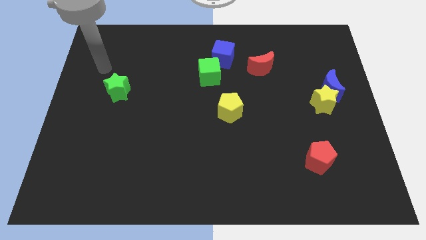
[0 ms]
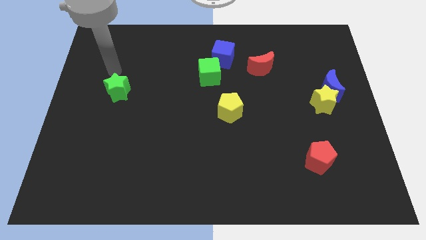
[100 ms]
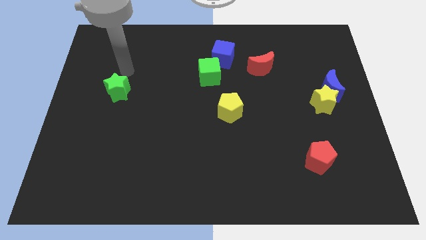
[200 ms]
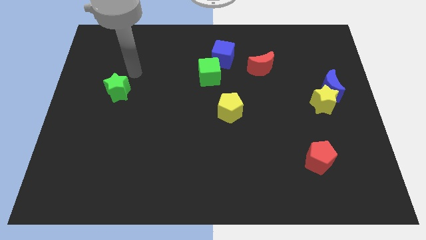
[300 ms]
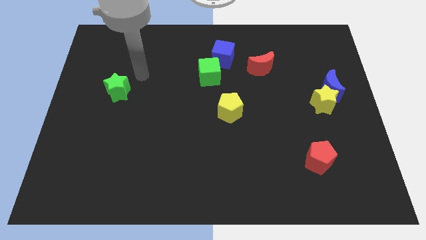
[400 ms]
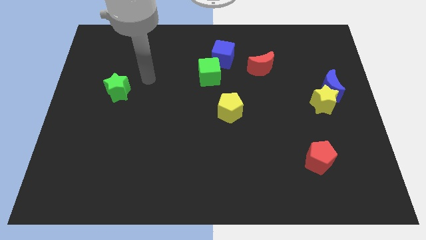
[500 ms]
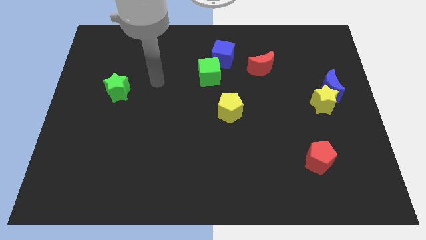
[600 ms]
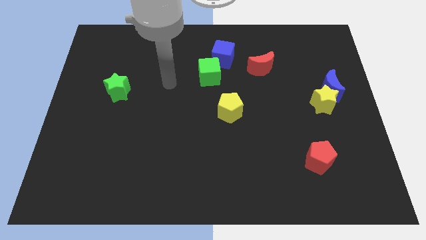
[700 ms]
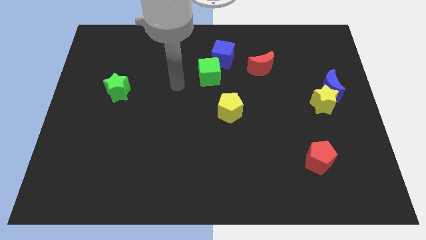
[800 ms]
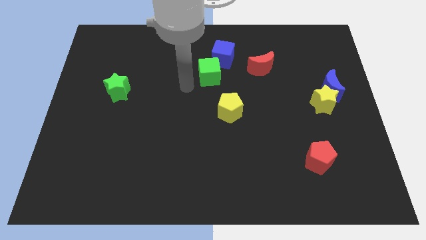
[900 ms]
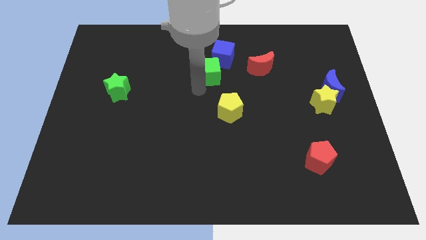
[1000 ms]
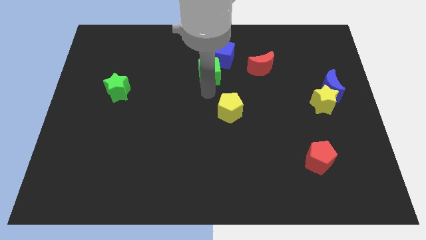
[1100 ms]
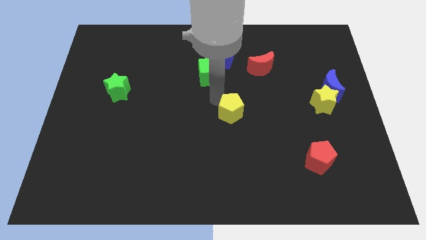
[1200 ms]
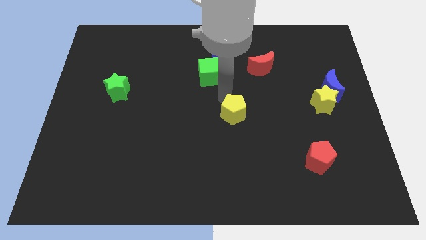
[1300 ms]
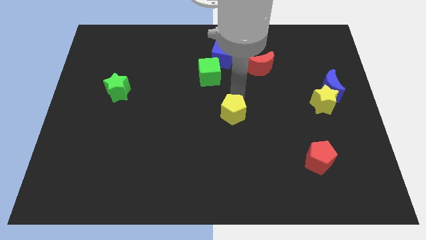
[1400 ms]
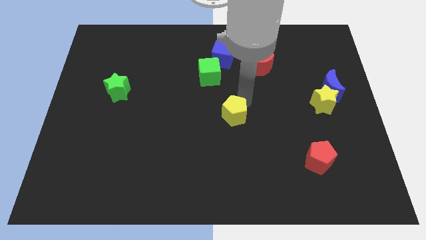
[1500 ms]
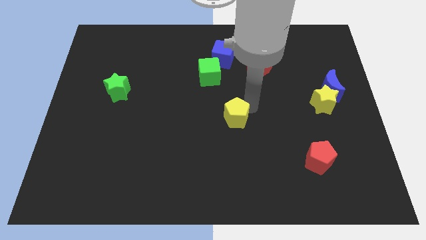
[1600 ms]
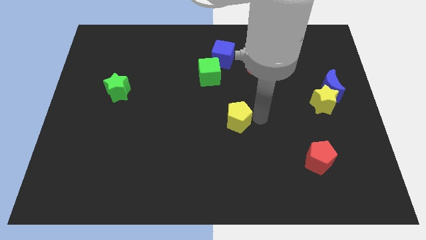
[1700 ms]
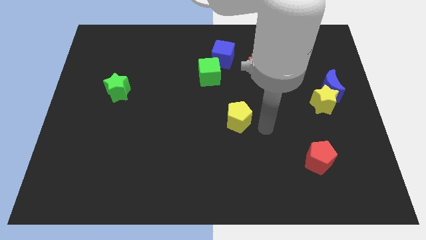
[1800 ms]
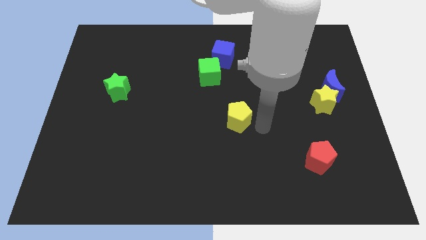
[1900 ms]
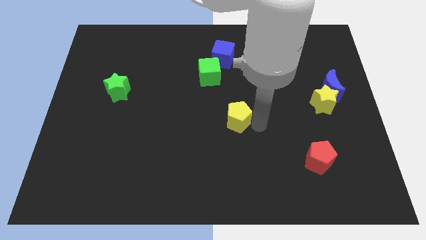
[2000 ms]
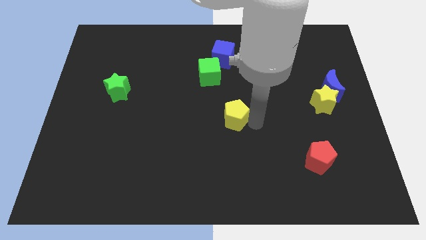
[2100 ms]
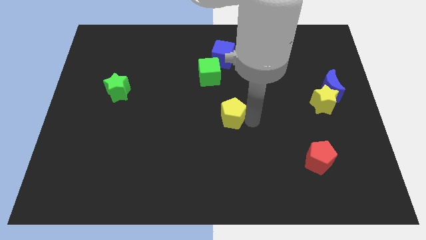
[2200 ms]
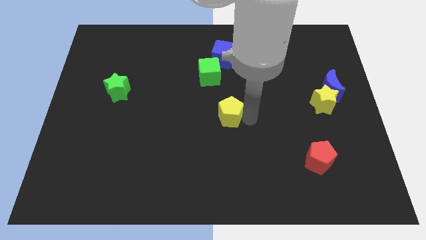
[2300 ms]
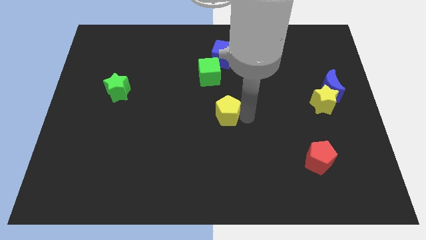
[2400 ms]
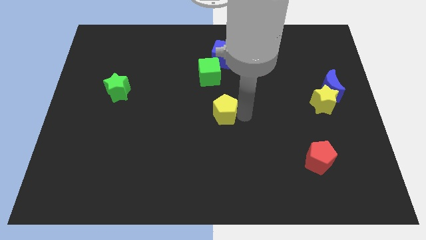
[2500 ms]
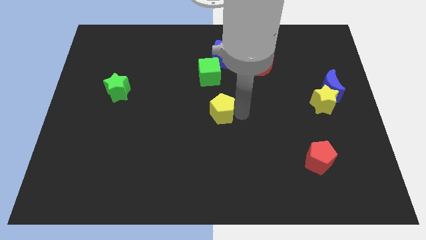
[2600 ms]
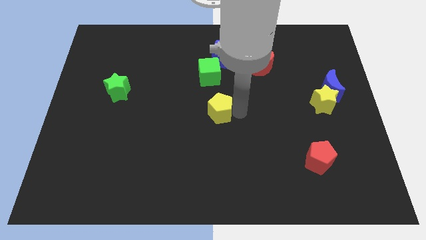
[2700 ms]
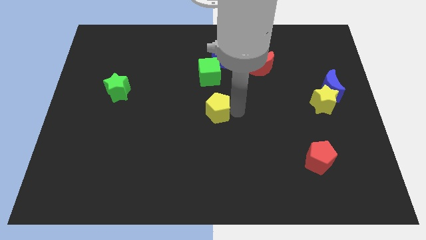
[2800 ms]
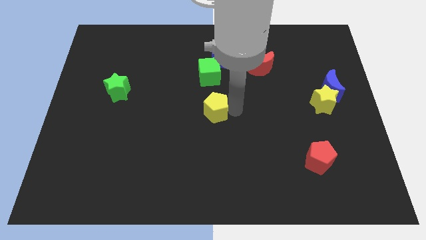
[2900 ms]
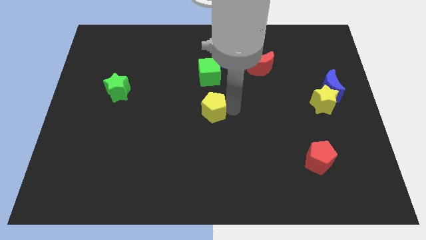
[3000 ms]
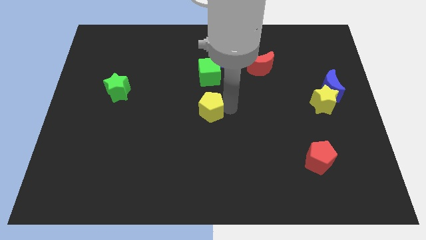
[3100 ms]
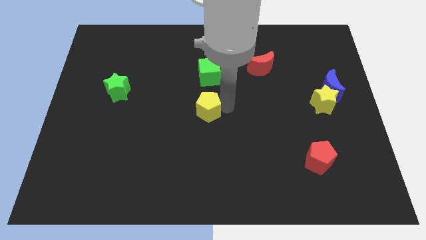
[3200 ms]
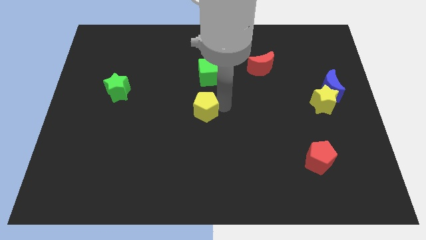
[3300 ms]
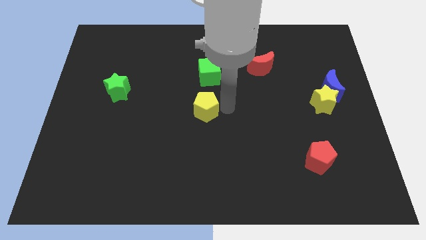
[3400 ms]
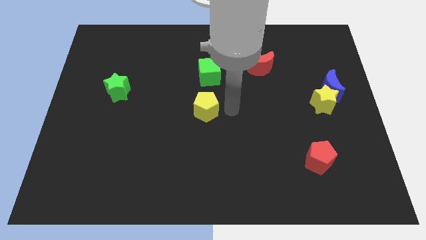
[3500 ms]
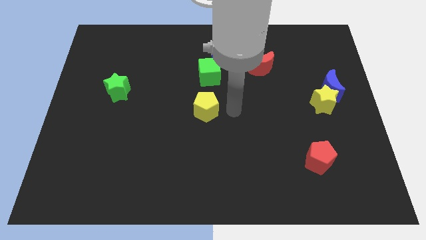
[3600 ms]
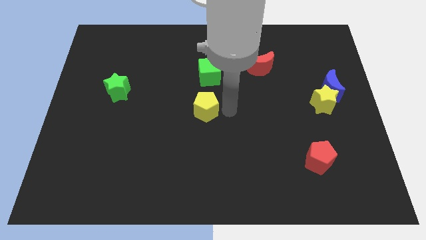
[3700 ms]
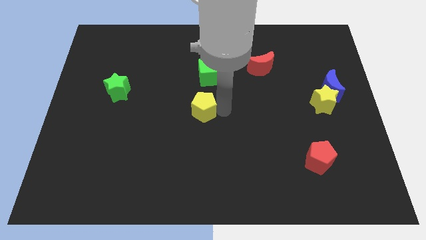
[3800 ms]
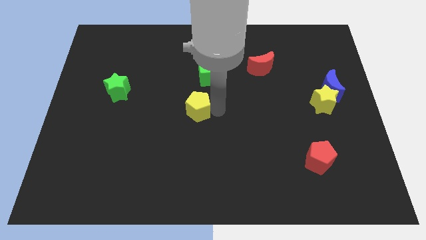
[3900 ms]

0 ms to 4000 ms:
slide the yellow pentagon left a bit

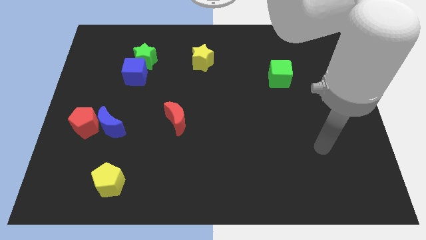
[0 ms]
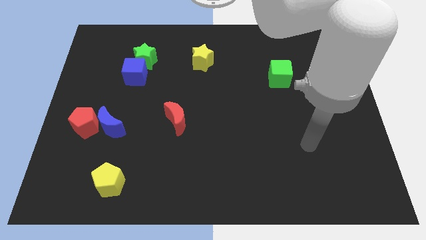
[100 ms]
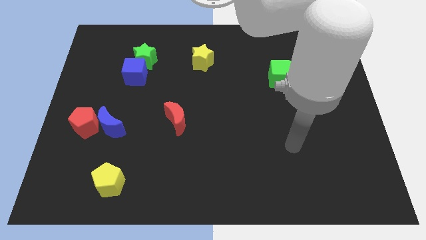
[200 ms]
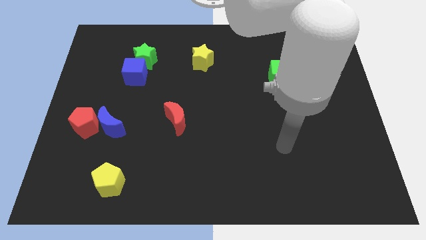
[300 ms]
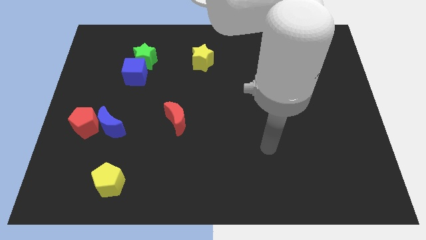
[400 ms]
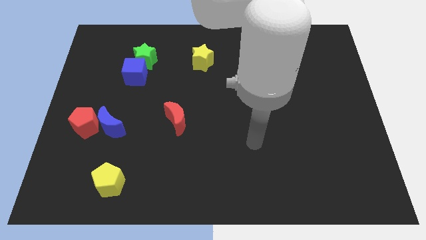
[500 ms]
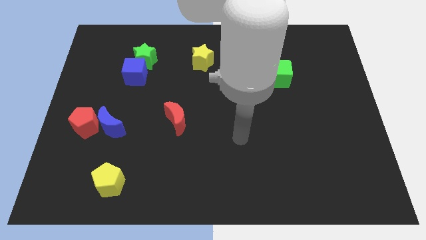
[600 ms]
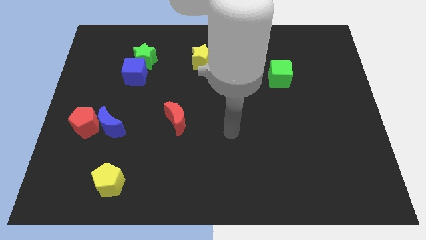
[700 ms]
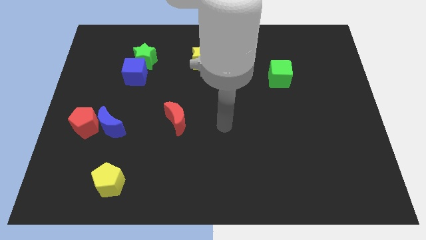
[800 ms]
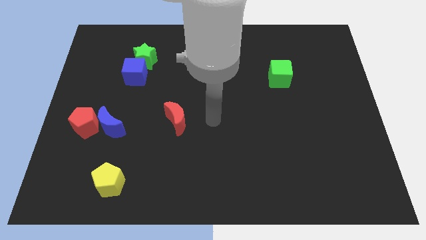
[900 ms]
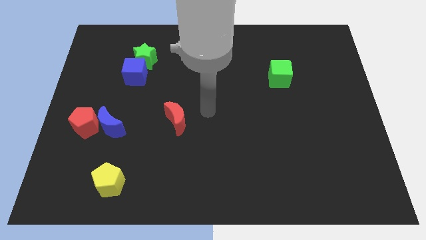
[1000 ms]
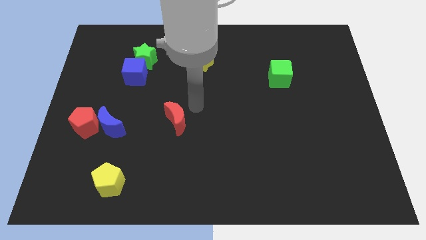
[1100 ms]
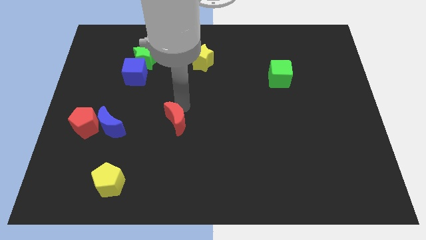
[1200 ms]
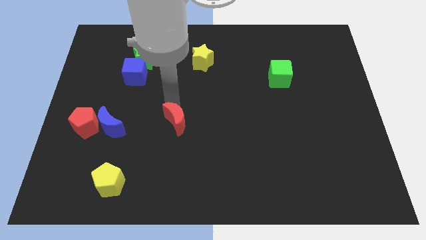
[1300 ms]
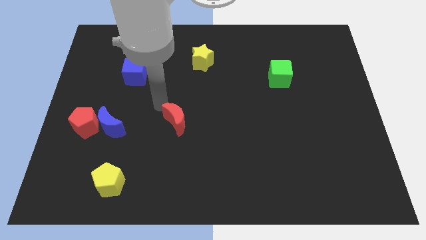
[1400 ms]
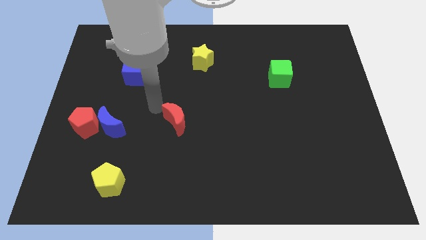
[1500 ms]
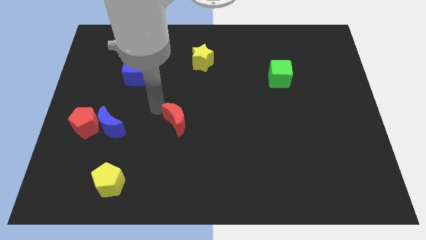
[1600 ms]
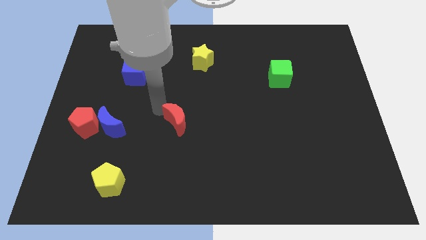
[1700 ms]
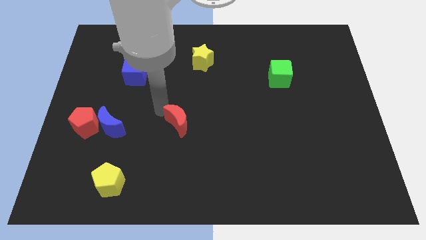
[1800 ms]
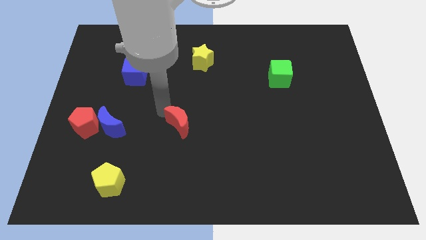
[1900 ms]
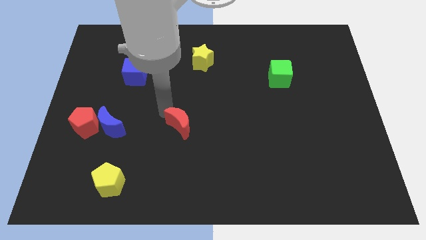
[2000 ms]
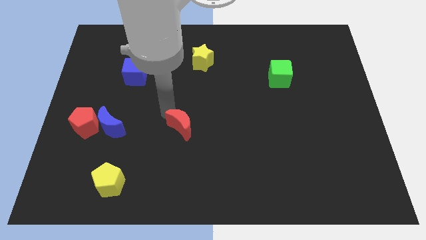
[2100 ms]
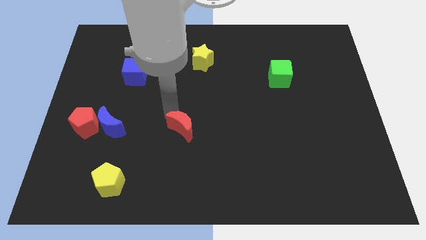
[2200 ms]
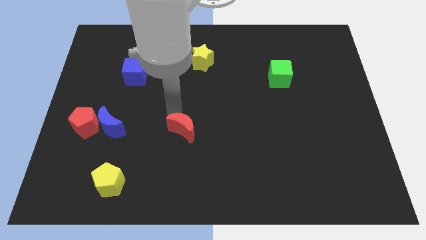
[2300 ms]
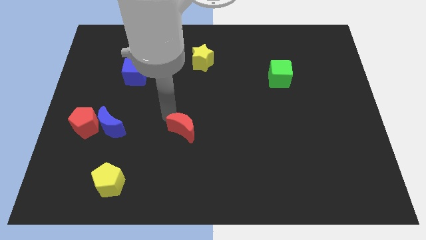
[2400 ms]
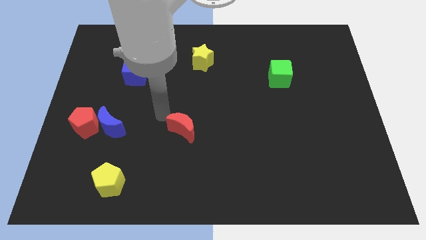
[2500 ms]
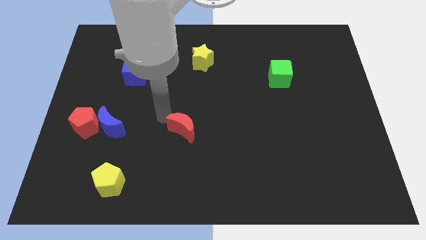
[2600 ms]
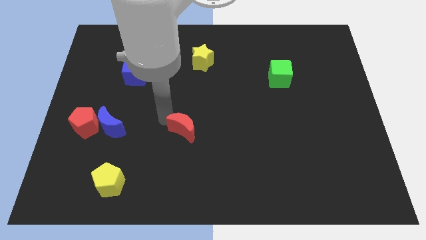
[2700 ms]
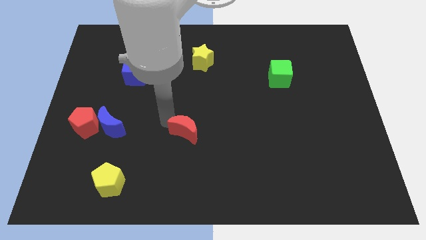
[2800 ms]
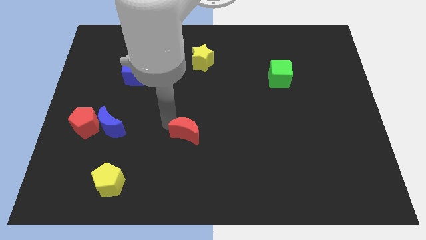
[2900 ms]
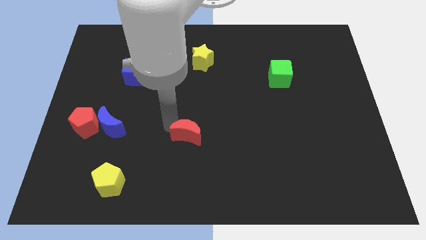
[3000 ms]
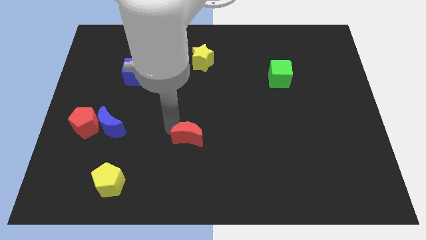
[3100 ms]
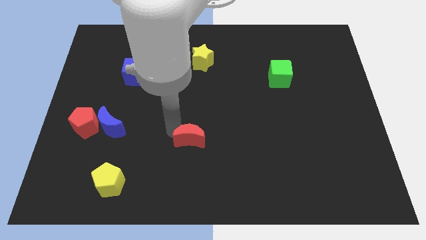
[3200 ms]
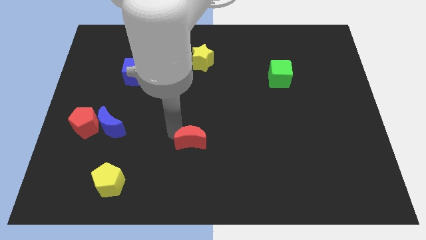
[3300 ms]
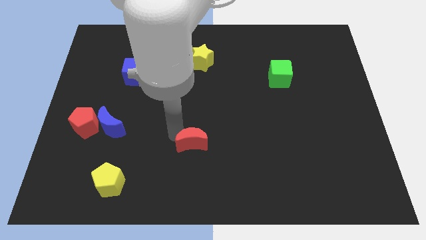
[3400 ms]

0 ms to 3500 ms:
move the red moon slightly downwards and then right

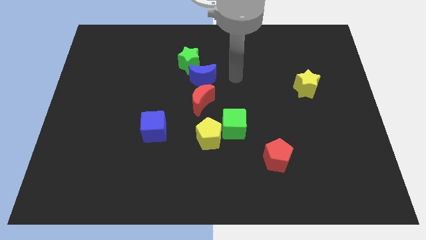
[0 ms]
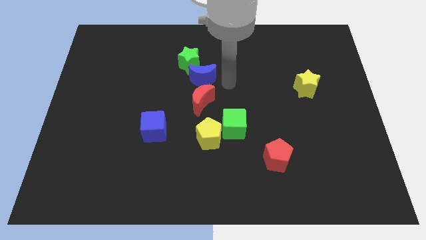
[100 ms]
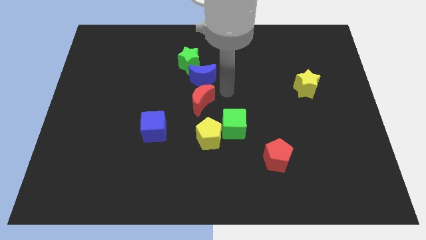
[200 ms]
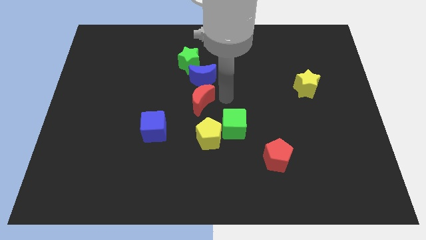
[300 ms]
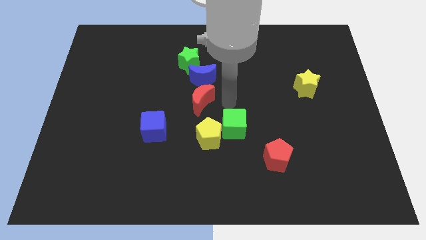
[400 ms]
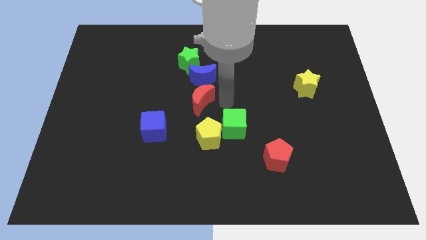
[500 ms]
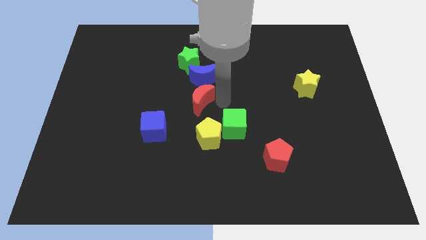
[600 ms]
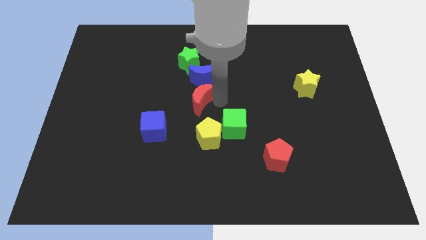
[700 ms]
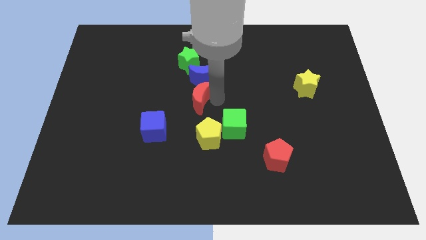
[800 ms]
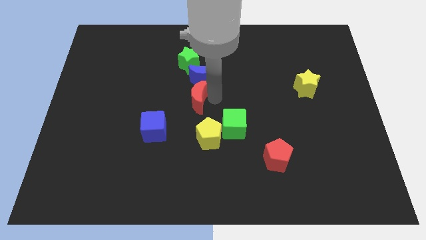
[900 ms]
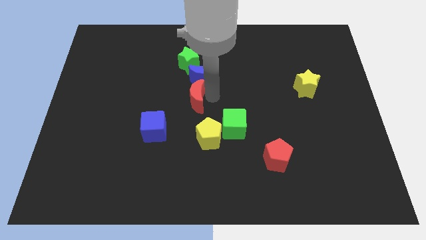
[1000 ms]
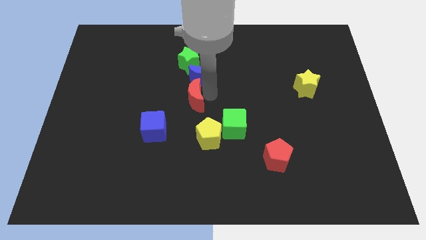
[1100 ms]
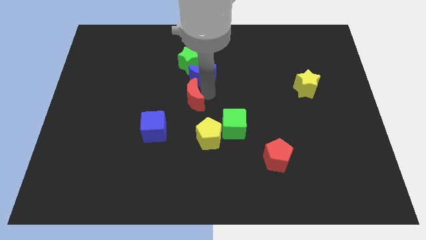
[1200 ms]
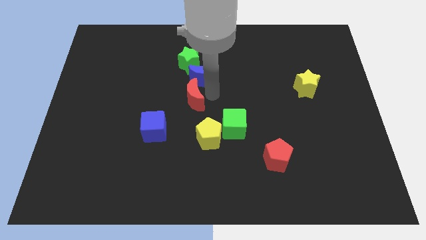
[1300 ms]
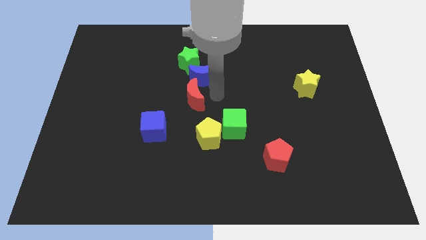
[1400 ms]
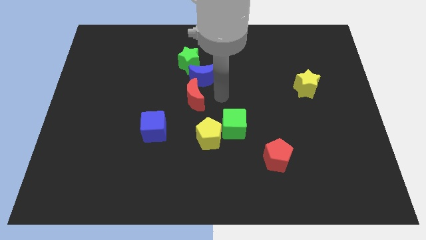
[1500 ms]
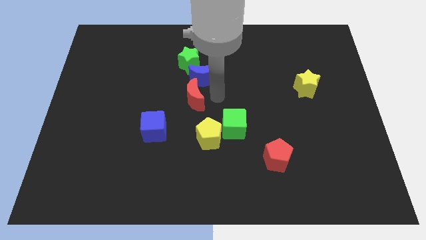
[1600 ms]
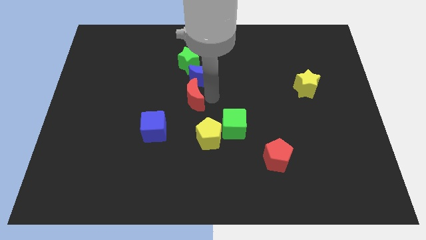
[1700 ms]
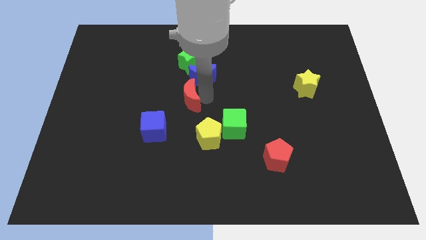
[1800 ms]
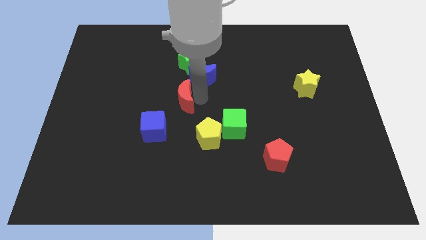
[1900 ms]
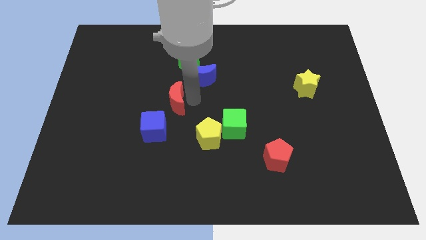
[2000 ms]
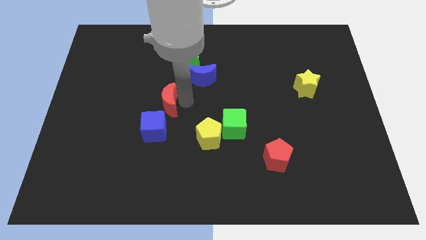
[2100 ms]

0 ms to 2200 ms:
move the red moon a little to the left
